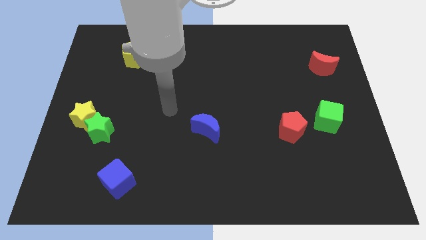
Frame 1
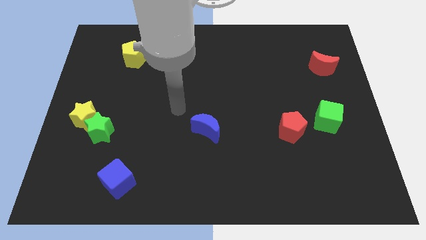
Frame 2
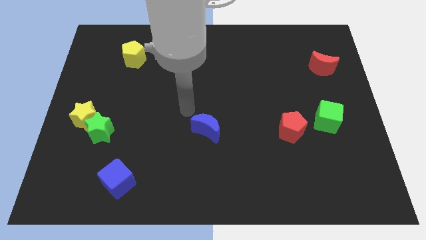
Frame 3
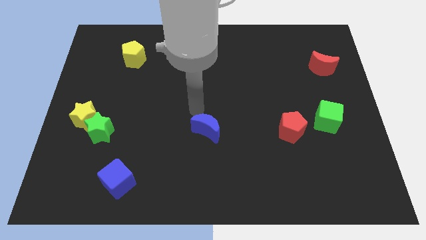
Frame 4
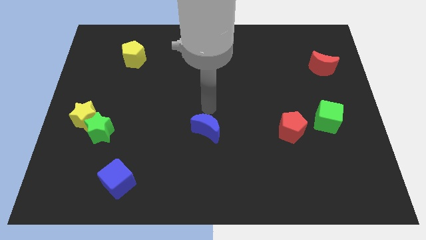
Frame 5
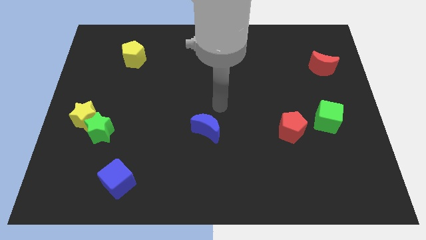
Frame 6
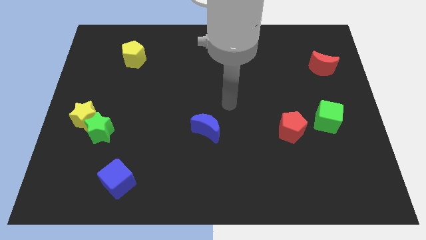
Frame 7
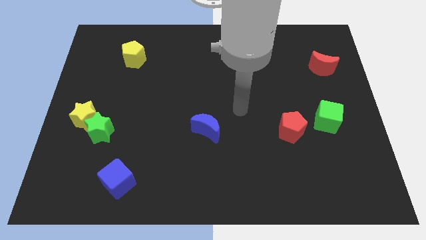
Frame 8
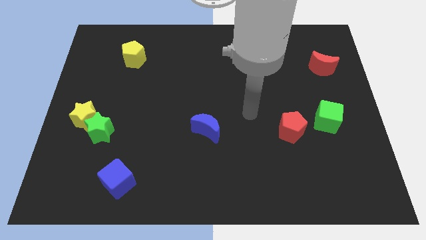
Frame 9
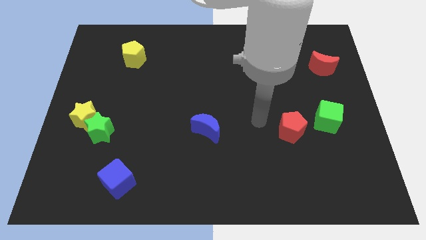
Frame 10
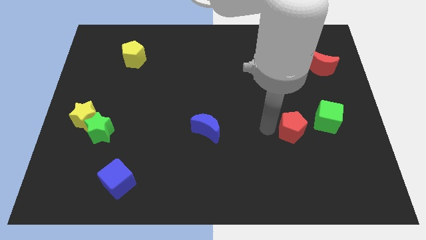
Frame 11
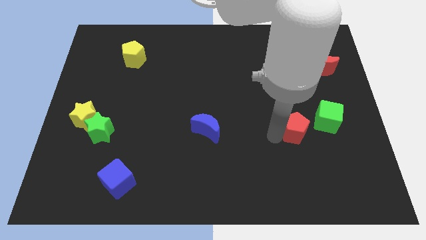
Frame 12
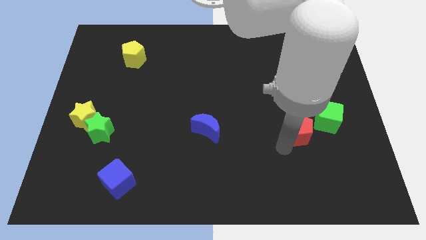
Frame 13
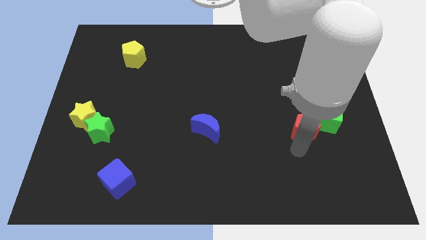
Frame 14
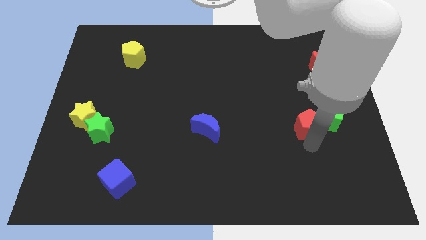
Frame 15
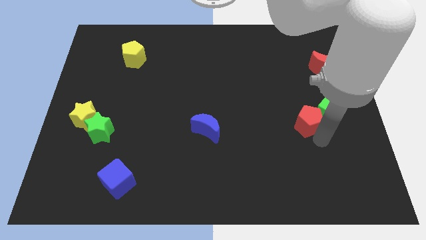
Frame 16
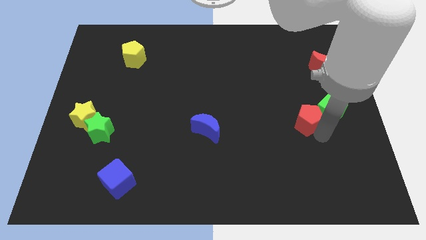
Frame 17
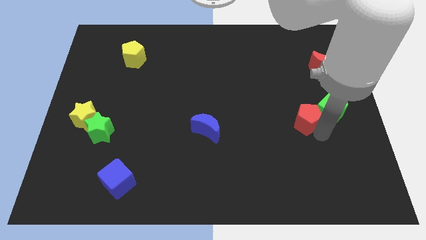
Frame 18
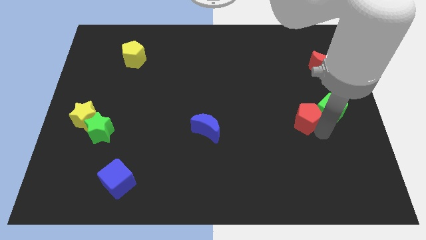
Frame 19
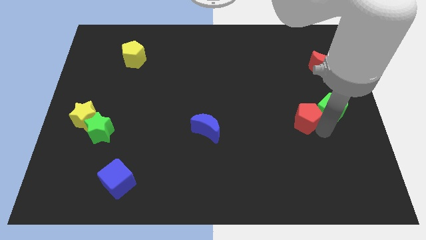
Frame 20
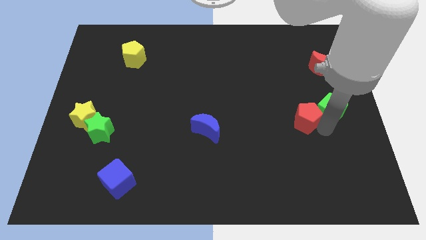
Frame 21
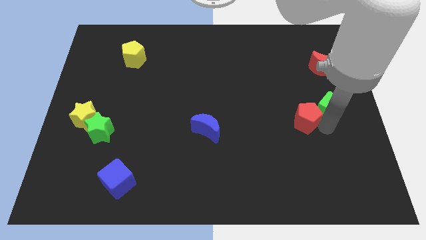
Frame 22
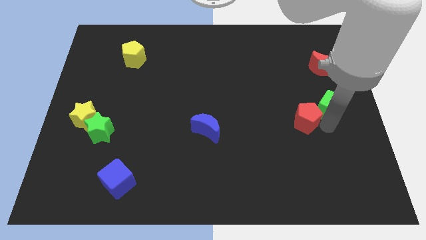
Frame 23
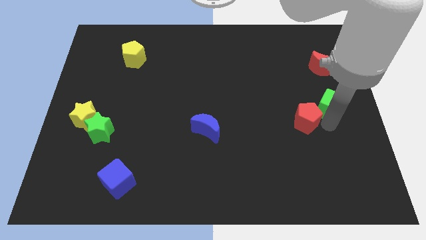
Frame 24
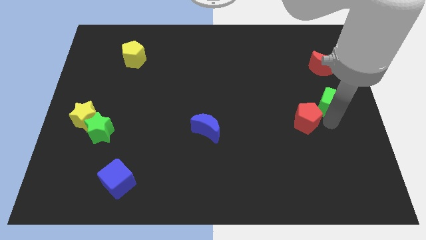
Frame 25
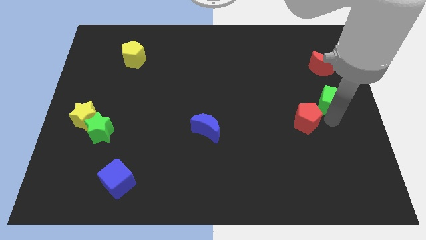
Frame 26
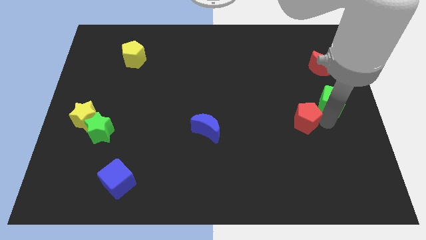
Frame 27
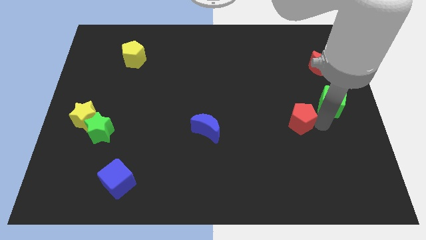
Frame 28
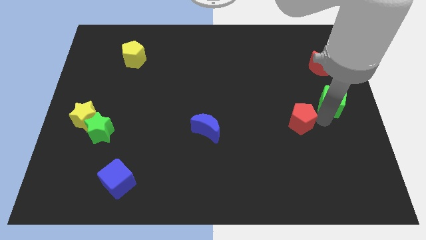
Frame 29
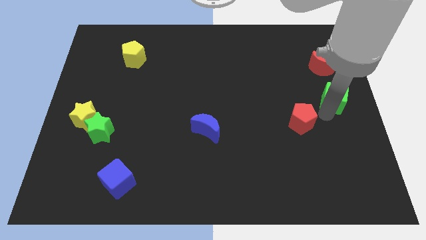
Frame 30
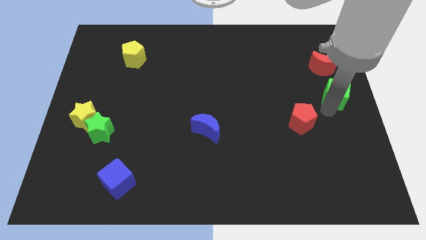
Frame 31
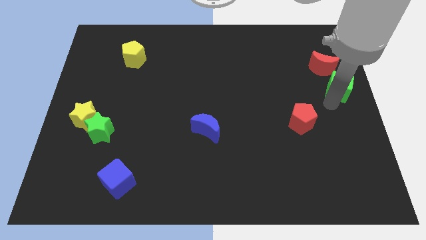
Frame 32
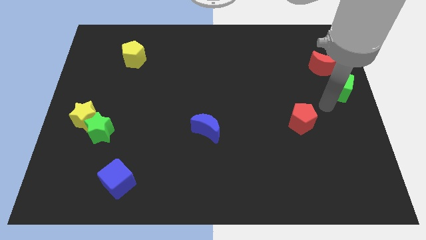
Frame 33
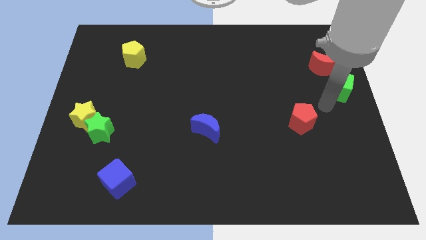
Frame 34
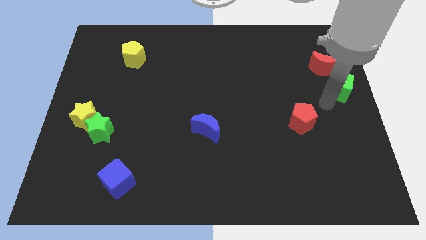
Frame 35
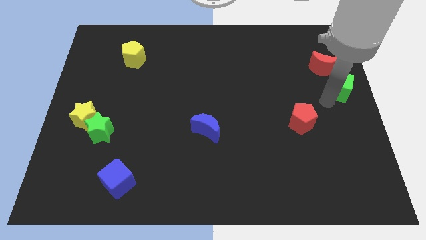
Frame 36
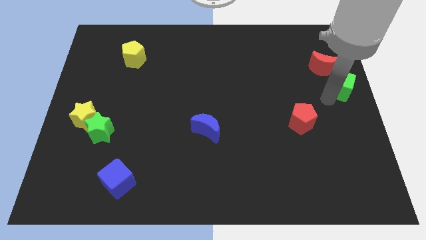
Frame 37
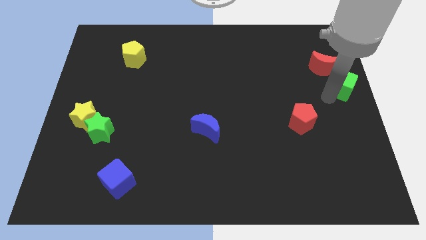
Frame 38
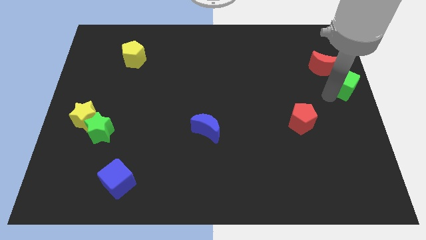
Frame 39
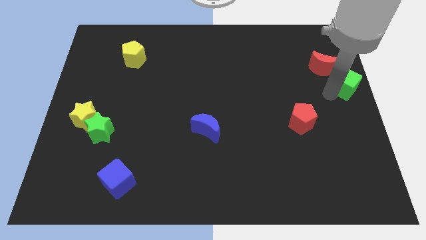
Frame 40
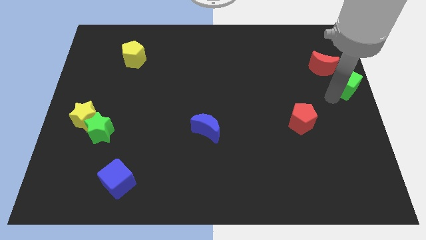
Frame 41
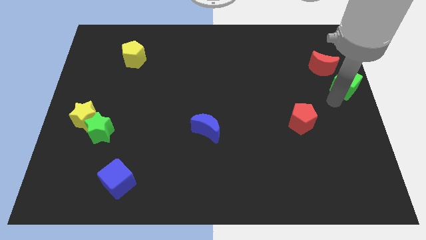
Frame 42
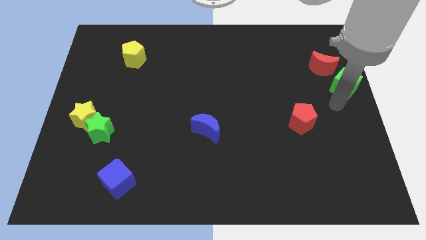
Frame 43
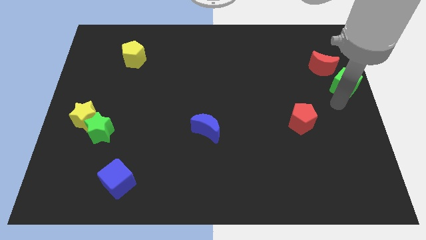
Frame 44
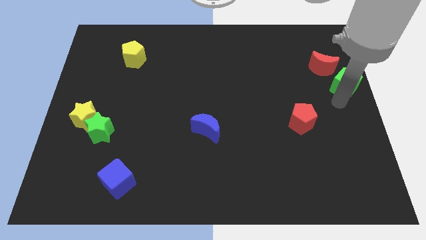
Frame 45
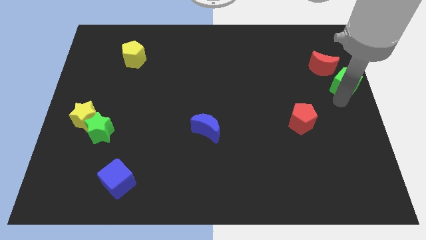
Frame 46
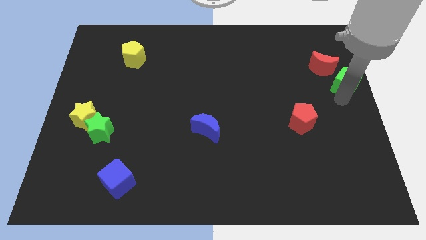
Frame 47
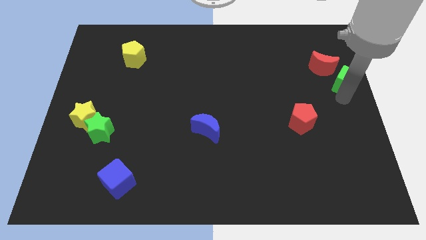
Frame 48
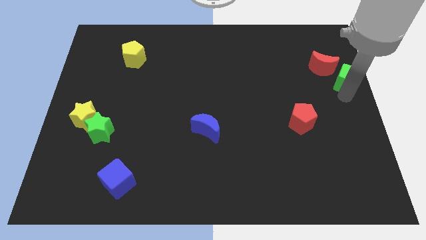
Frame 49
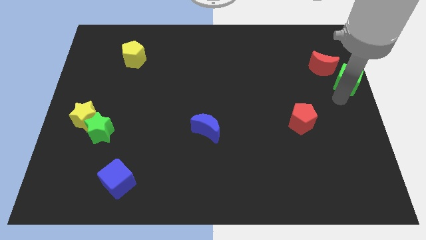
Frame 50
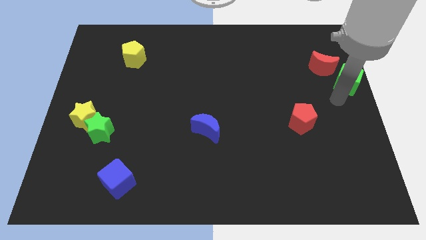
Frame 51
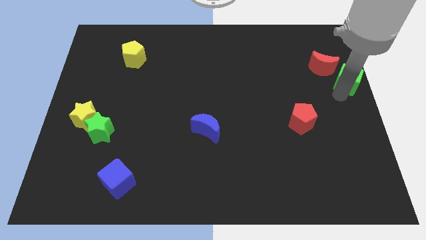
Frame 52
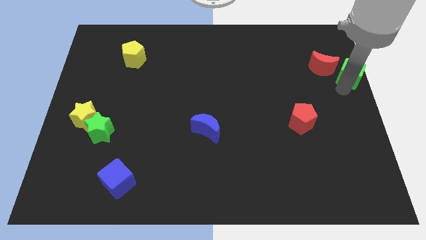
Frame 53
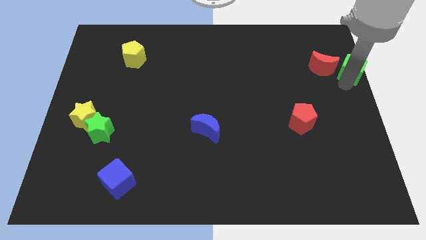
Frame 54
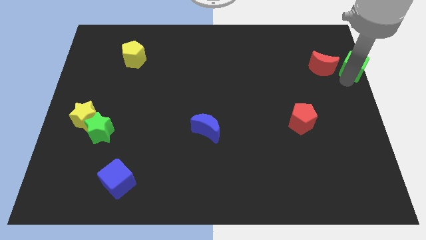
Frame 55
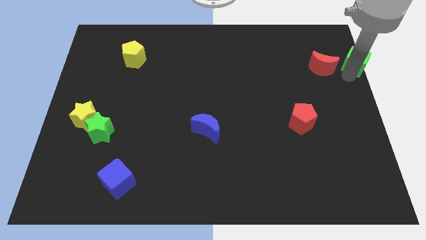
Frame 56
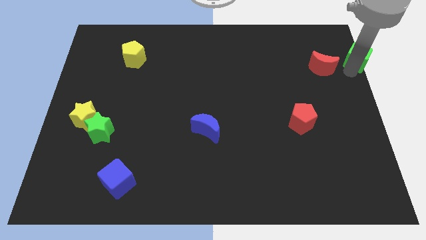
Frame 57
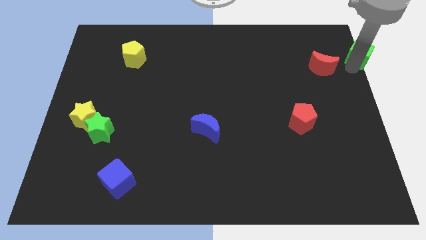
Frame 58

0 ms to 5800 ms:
push the green cube to the top right corner
